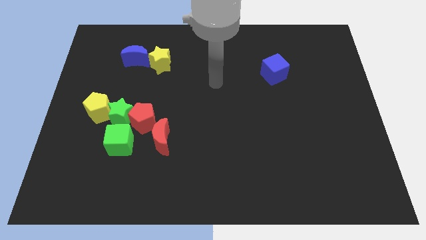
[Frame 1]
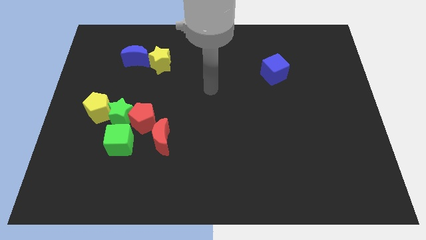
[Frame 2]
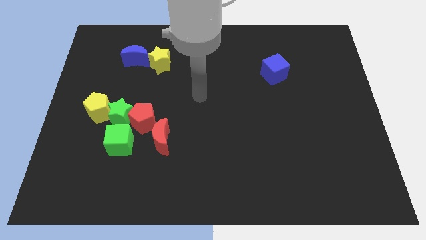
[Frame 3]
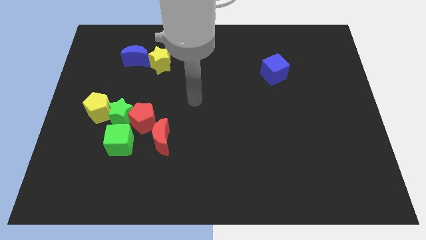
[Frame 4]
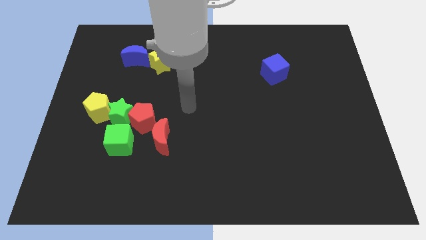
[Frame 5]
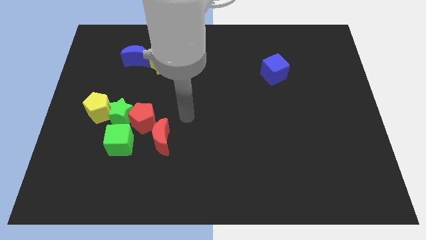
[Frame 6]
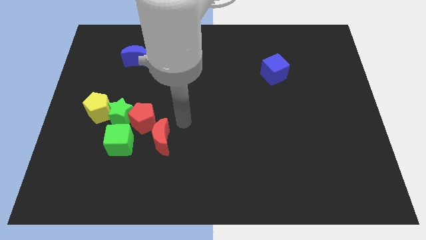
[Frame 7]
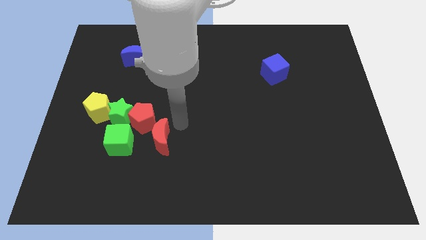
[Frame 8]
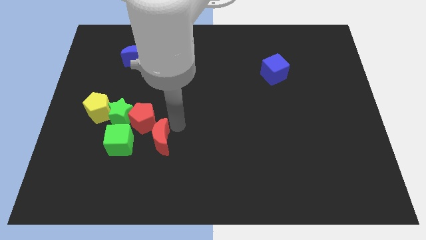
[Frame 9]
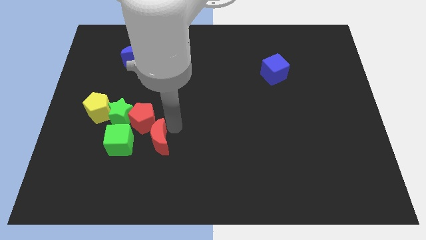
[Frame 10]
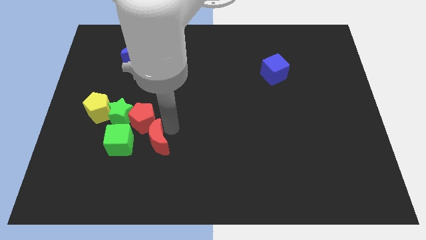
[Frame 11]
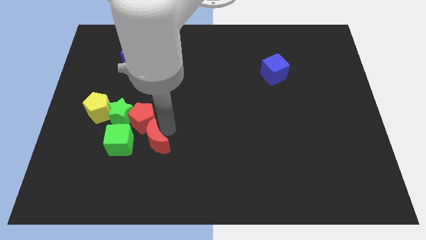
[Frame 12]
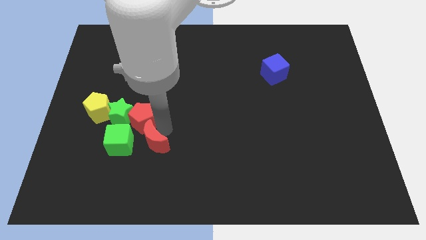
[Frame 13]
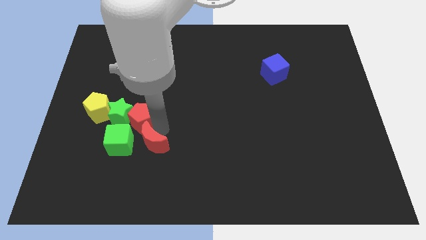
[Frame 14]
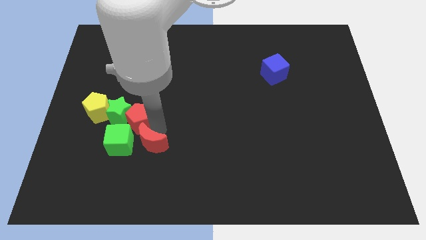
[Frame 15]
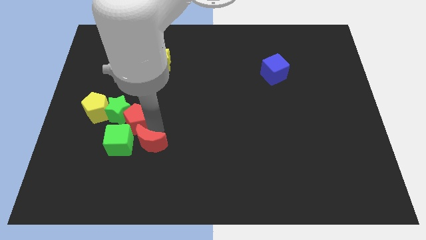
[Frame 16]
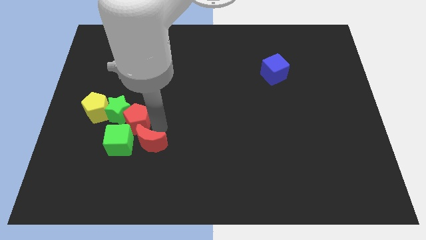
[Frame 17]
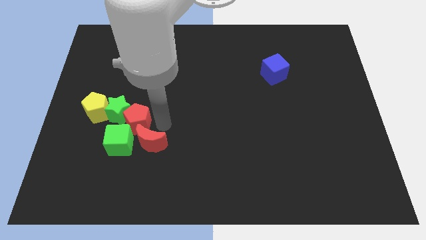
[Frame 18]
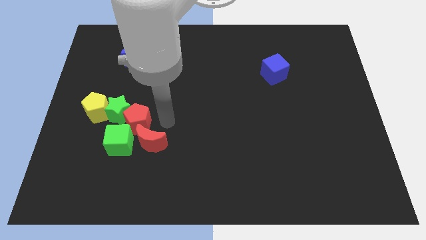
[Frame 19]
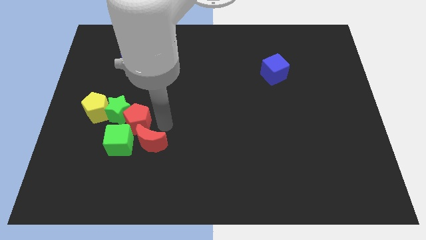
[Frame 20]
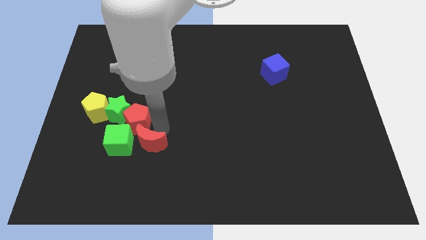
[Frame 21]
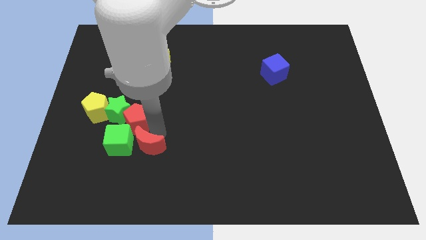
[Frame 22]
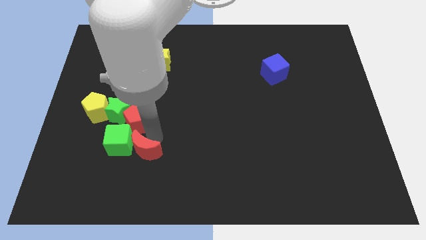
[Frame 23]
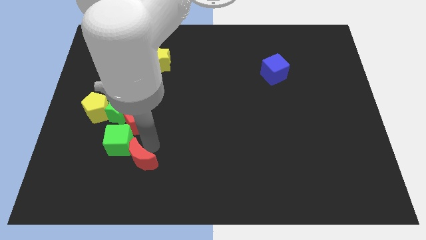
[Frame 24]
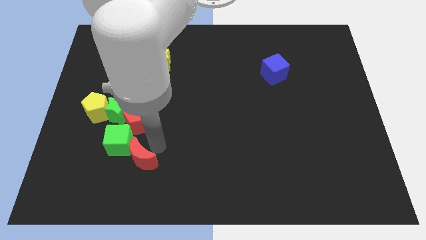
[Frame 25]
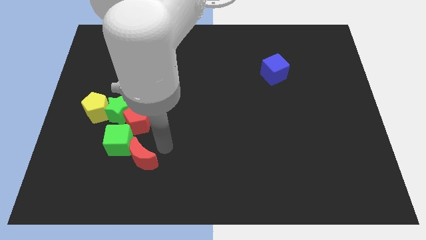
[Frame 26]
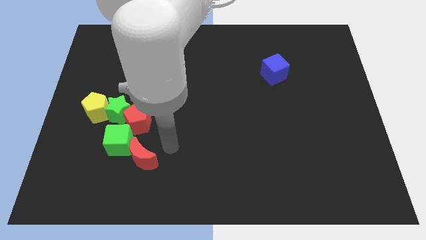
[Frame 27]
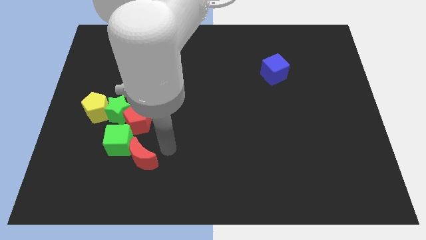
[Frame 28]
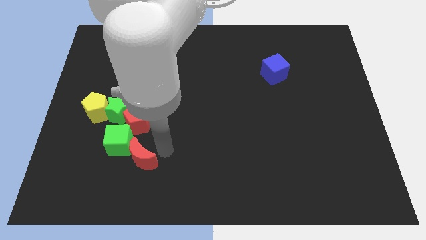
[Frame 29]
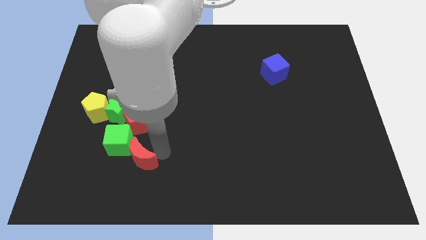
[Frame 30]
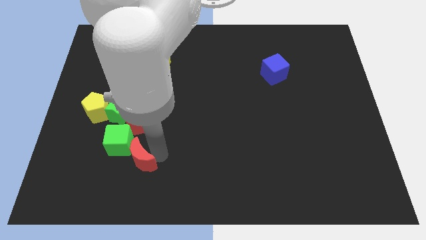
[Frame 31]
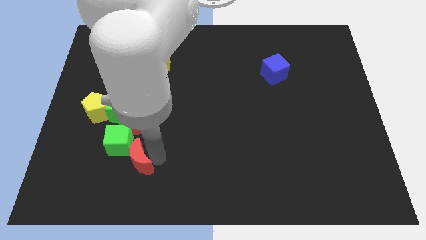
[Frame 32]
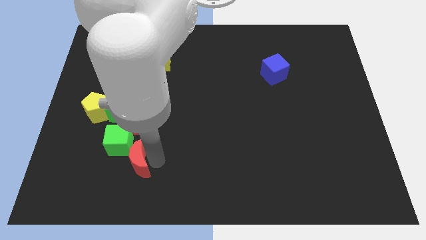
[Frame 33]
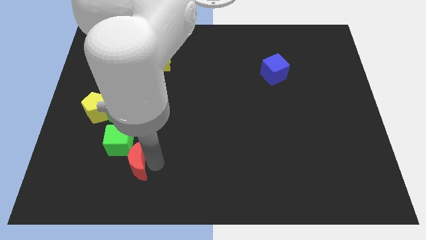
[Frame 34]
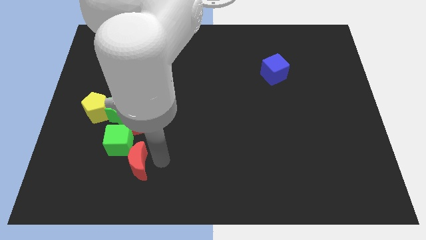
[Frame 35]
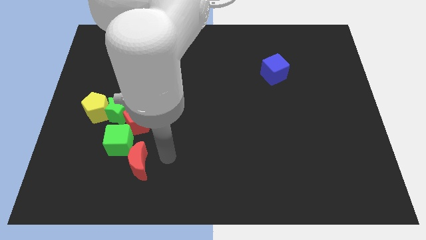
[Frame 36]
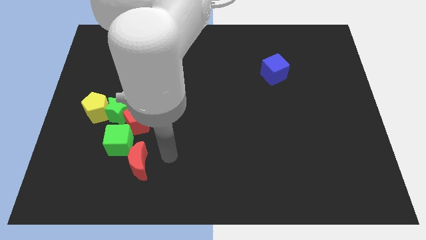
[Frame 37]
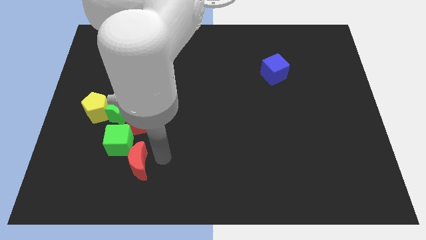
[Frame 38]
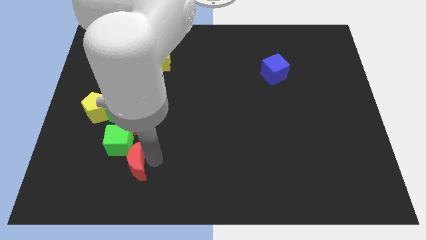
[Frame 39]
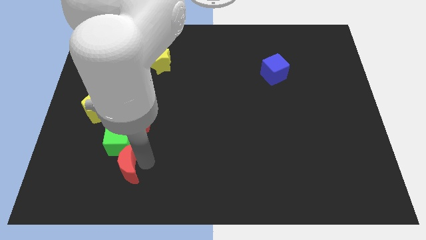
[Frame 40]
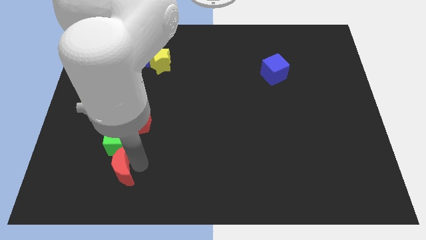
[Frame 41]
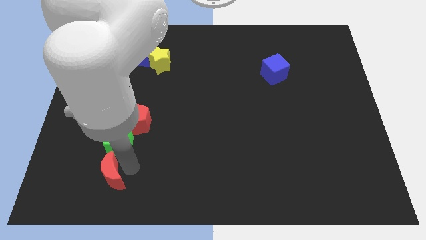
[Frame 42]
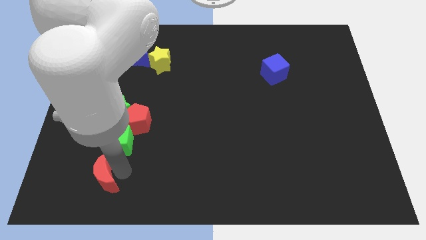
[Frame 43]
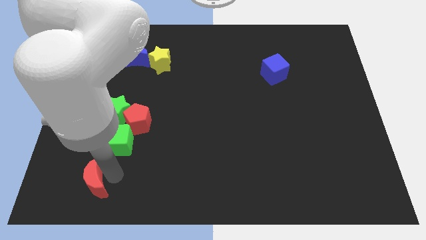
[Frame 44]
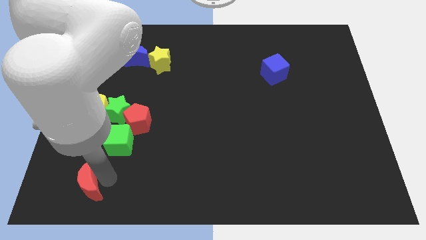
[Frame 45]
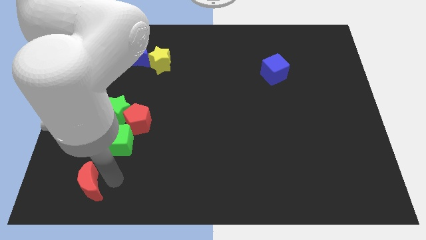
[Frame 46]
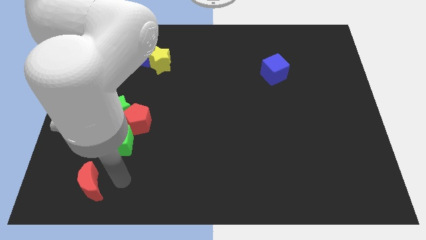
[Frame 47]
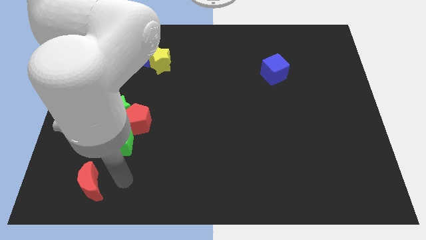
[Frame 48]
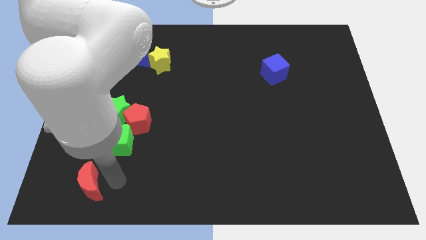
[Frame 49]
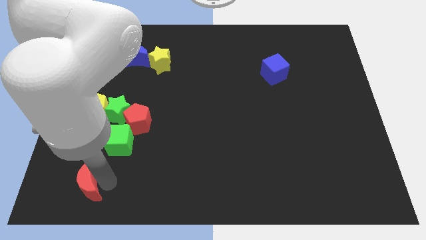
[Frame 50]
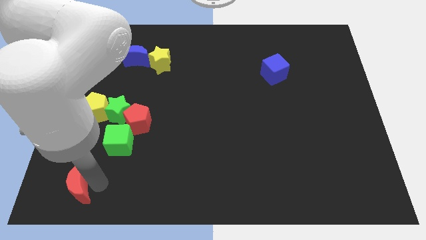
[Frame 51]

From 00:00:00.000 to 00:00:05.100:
push the red moon to the bottom left corner

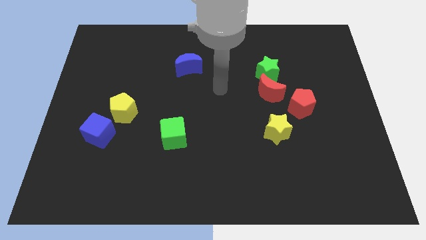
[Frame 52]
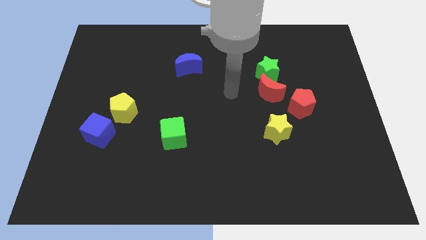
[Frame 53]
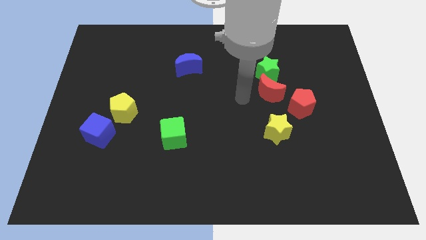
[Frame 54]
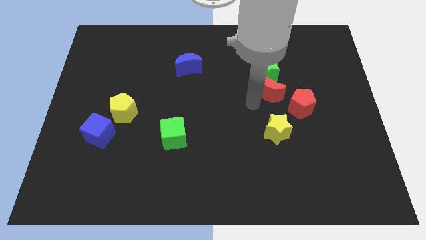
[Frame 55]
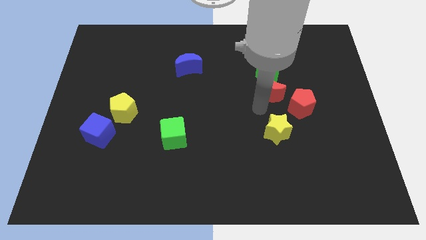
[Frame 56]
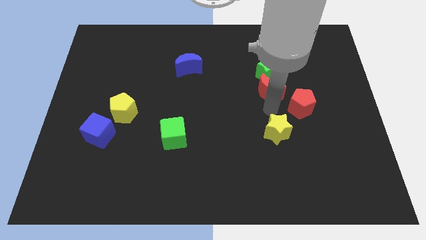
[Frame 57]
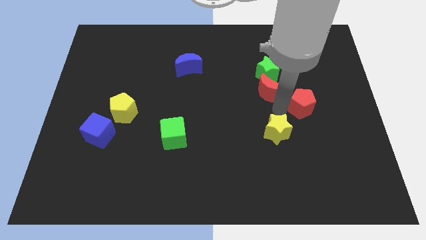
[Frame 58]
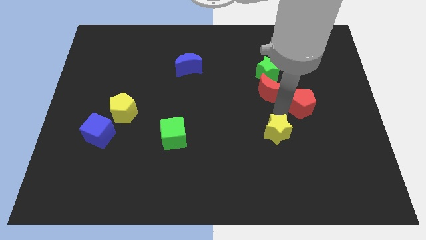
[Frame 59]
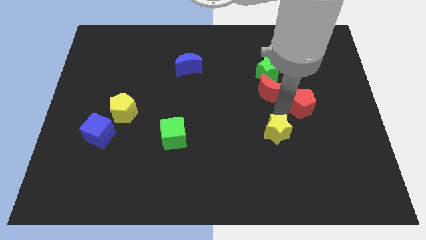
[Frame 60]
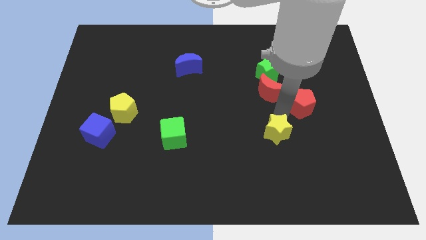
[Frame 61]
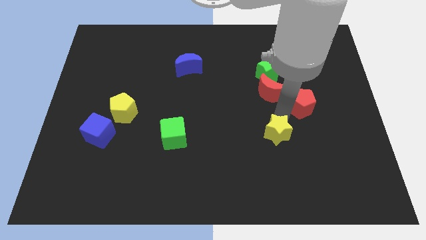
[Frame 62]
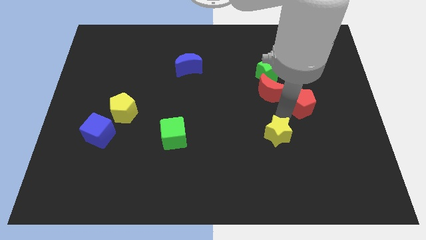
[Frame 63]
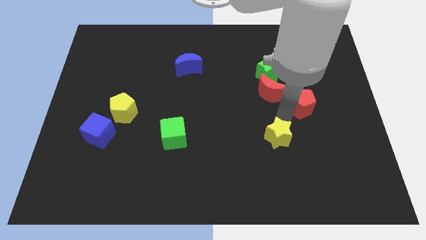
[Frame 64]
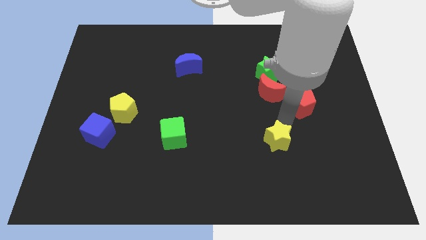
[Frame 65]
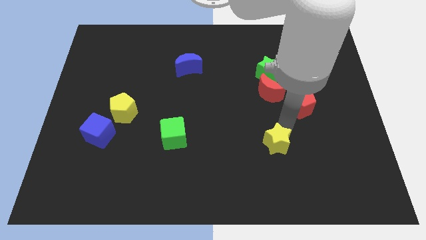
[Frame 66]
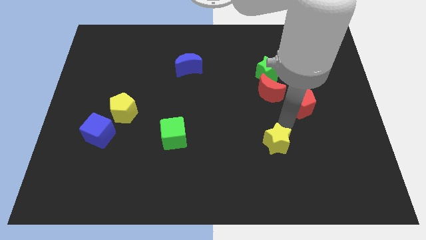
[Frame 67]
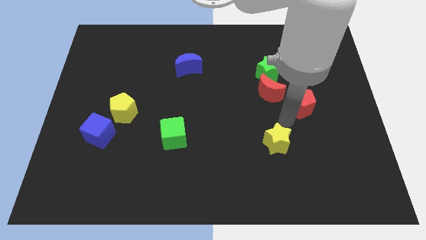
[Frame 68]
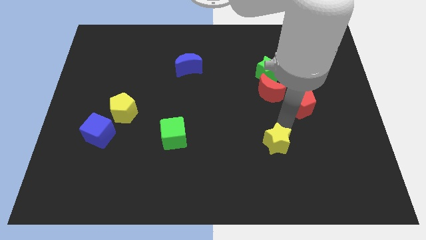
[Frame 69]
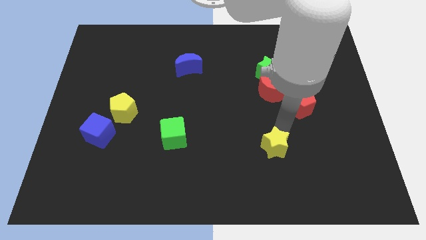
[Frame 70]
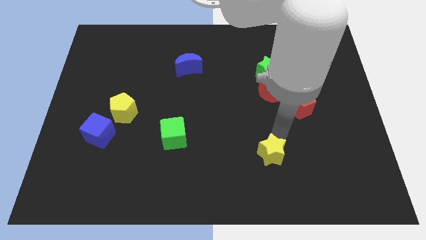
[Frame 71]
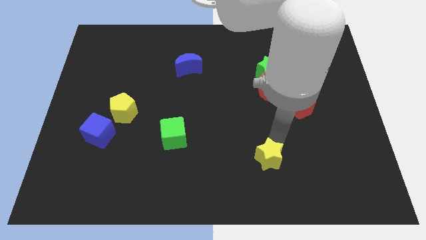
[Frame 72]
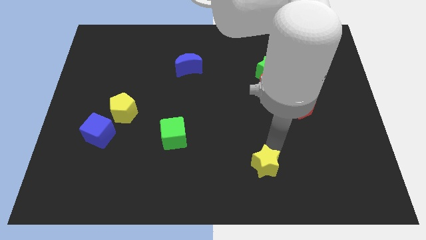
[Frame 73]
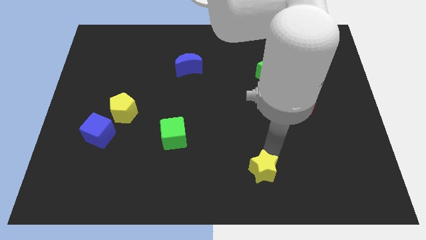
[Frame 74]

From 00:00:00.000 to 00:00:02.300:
move the yellow star to the bottom
